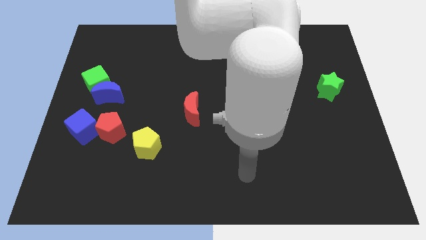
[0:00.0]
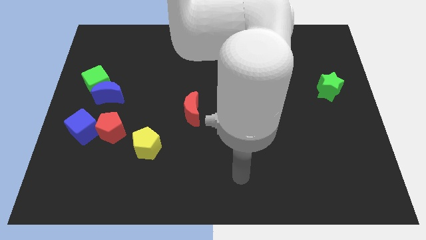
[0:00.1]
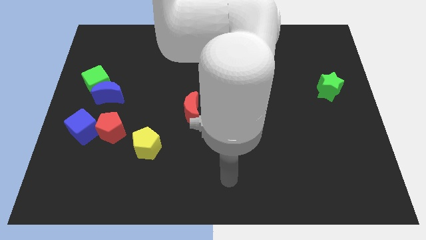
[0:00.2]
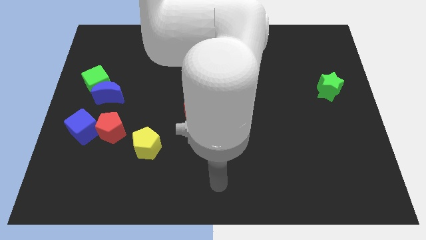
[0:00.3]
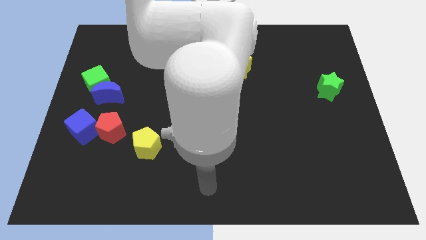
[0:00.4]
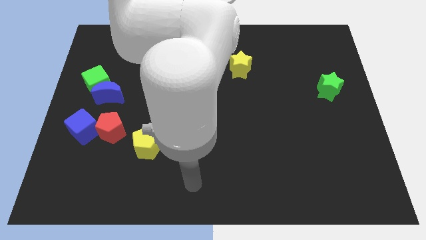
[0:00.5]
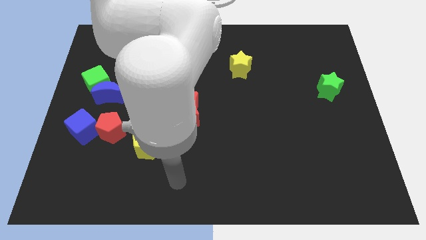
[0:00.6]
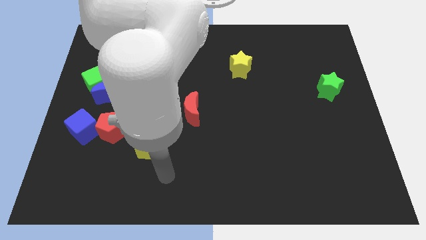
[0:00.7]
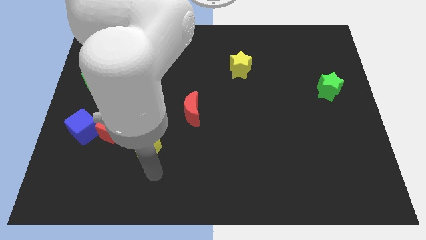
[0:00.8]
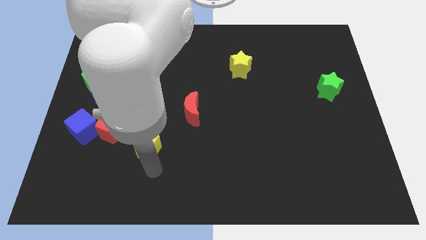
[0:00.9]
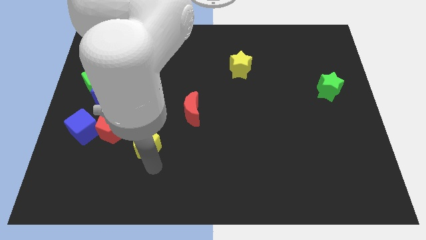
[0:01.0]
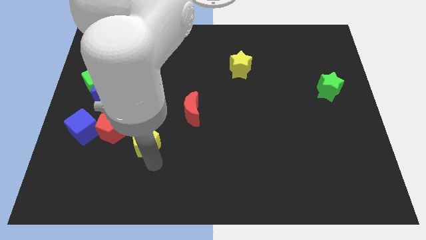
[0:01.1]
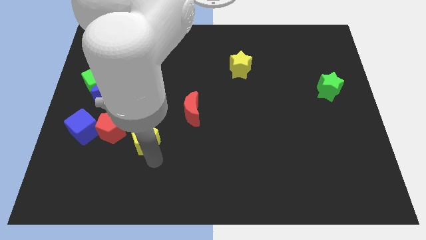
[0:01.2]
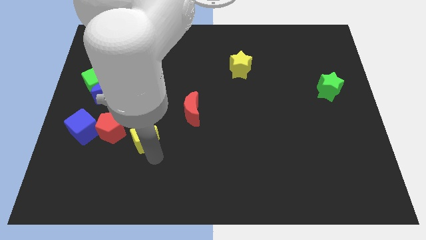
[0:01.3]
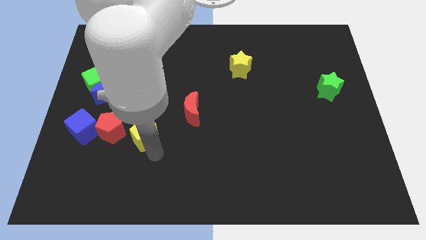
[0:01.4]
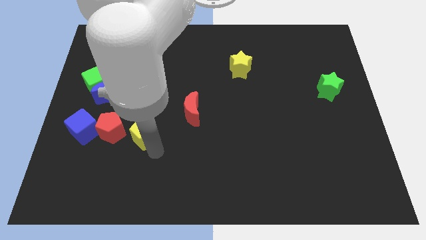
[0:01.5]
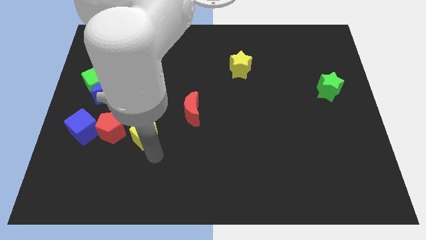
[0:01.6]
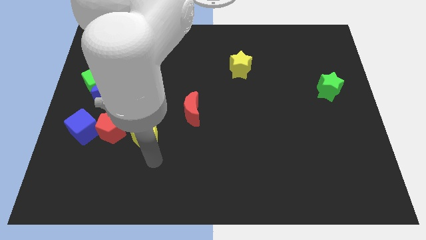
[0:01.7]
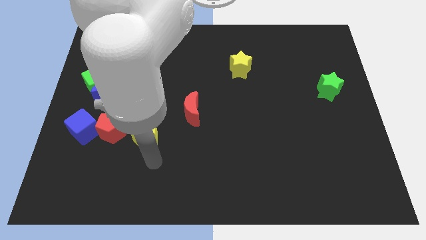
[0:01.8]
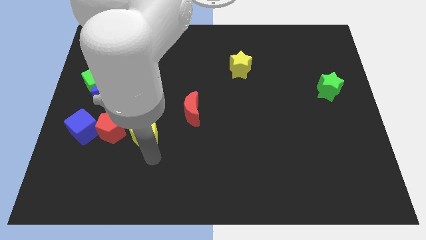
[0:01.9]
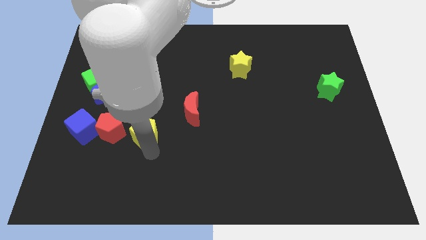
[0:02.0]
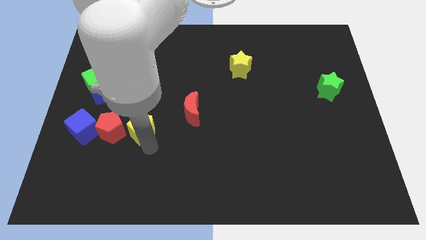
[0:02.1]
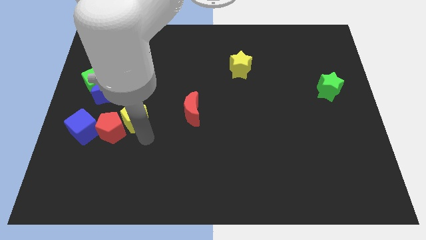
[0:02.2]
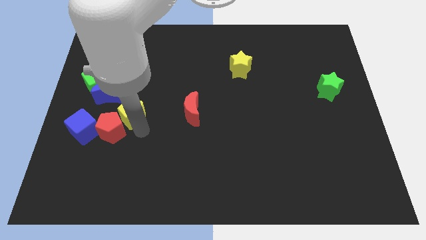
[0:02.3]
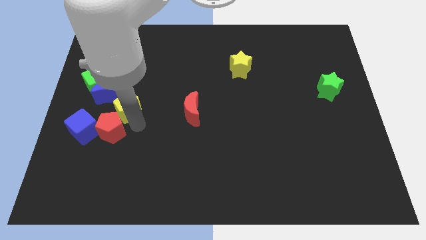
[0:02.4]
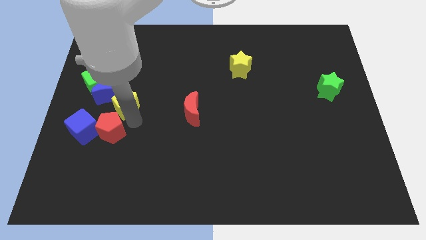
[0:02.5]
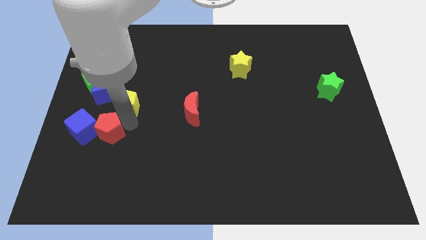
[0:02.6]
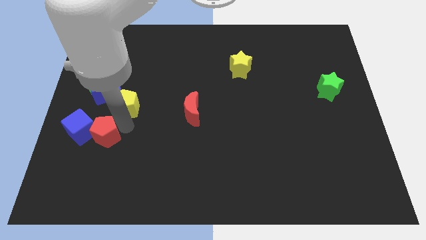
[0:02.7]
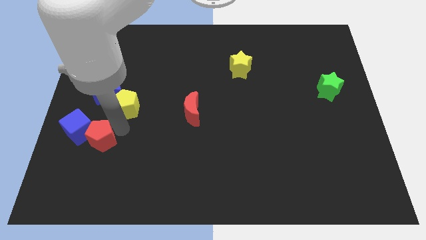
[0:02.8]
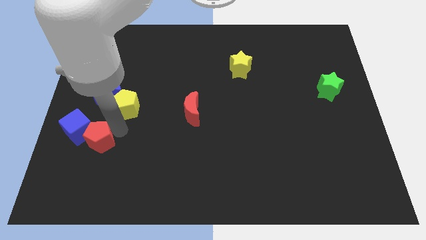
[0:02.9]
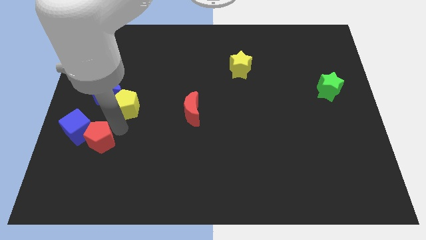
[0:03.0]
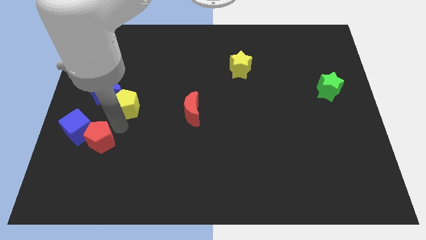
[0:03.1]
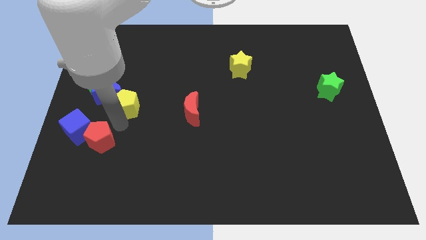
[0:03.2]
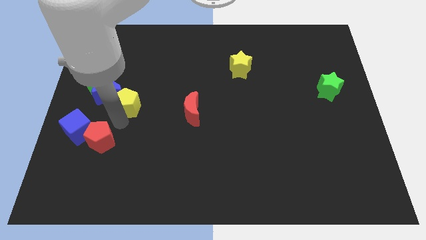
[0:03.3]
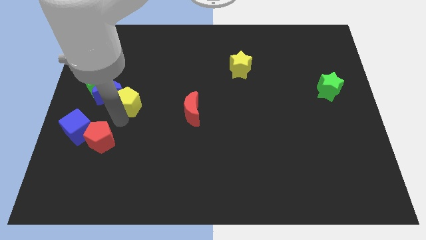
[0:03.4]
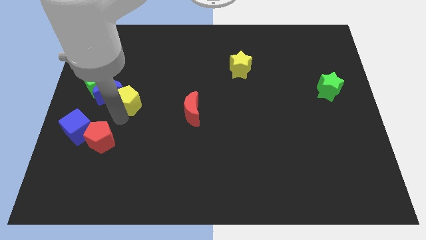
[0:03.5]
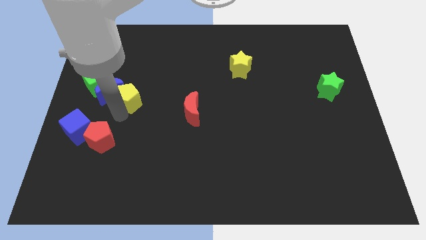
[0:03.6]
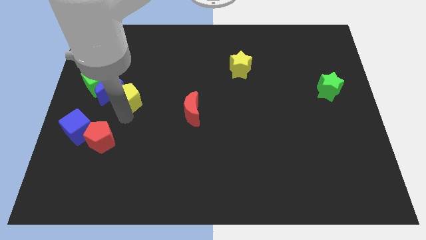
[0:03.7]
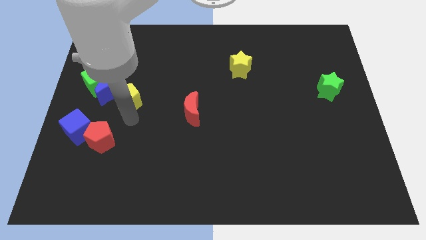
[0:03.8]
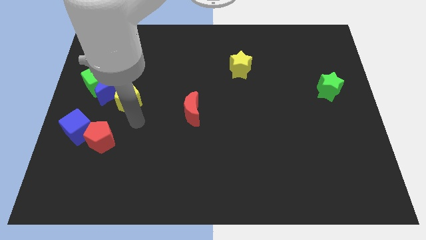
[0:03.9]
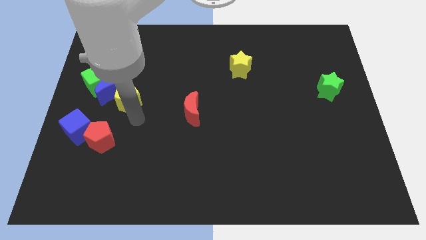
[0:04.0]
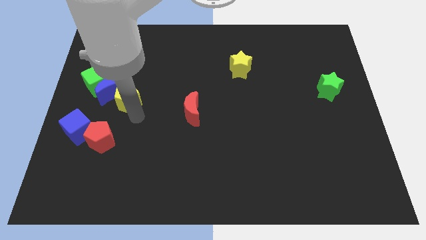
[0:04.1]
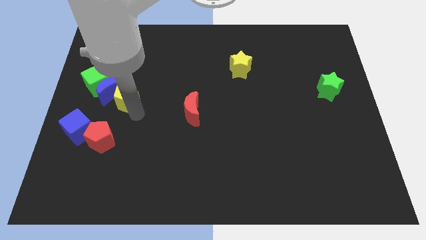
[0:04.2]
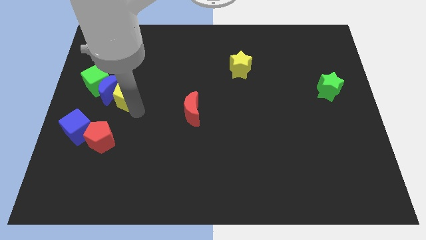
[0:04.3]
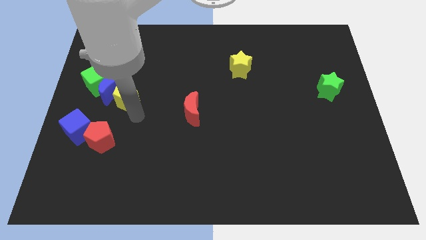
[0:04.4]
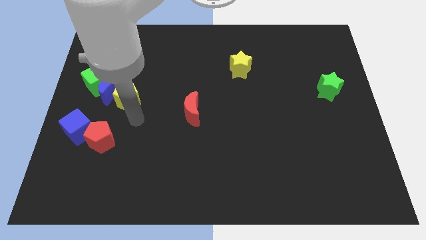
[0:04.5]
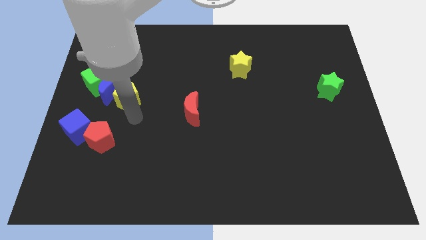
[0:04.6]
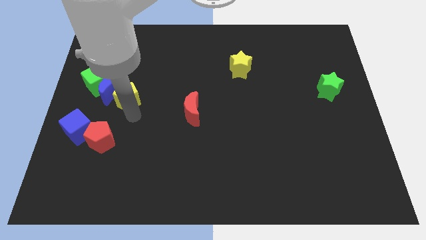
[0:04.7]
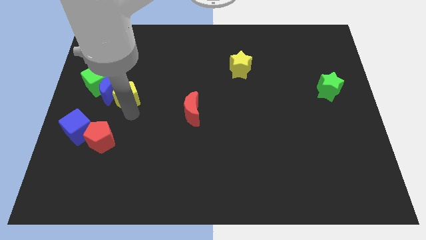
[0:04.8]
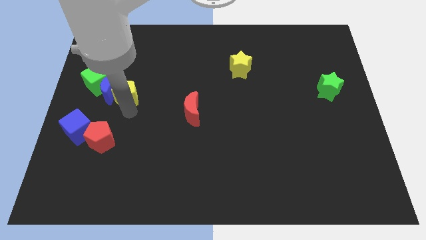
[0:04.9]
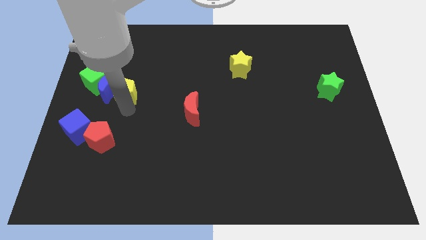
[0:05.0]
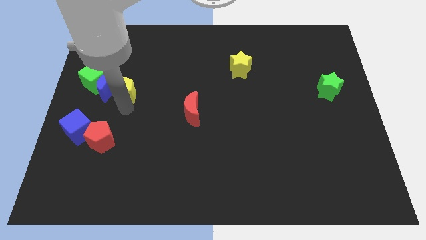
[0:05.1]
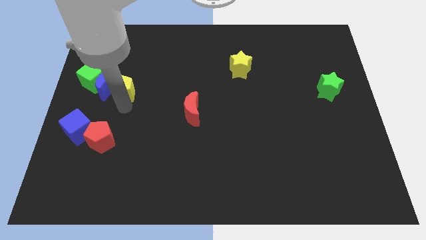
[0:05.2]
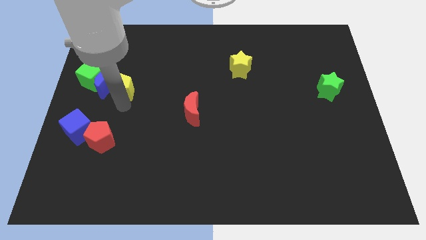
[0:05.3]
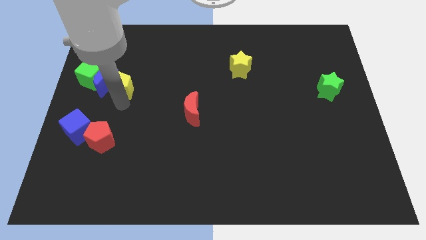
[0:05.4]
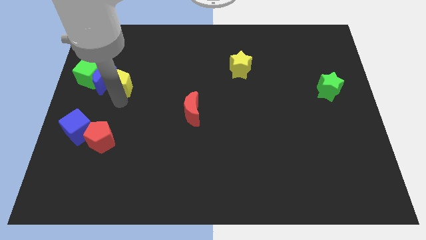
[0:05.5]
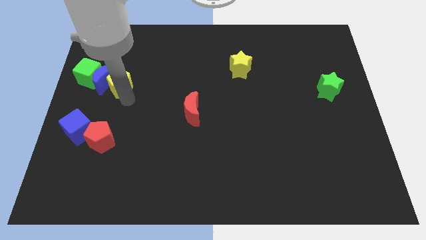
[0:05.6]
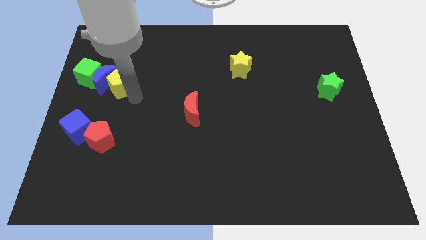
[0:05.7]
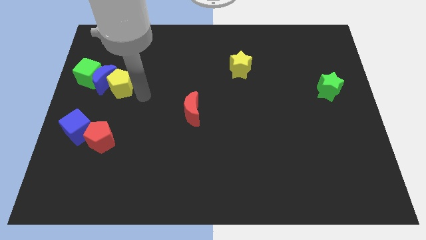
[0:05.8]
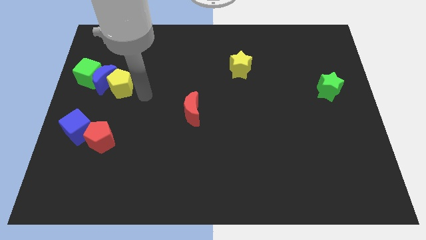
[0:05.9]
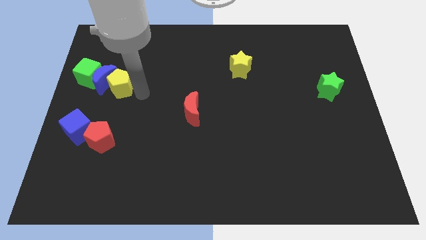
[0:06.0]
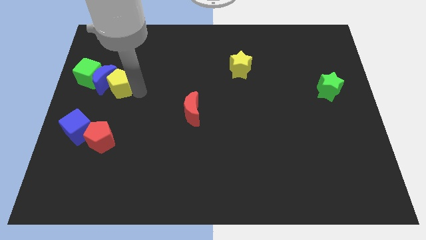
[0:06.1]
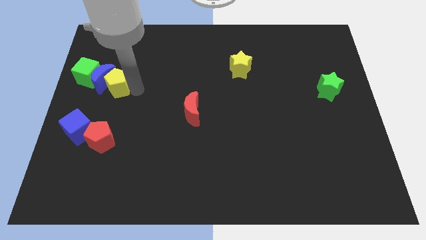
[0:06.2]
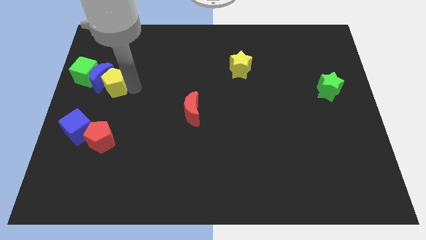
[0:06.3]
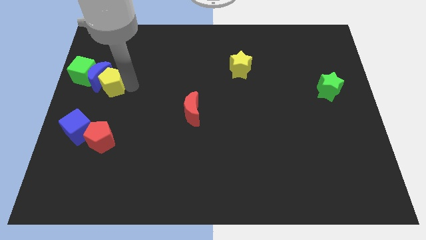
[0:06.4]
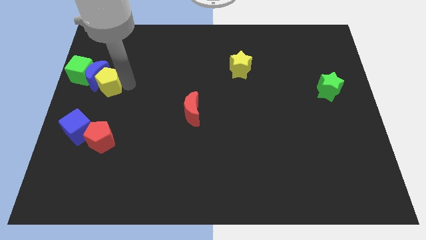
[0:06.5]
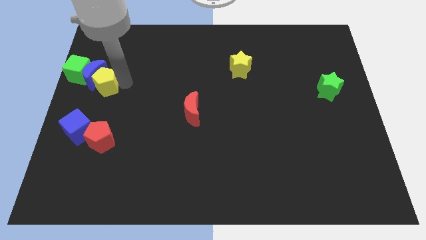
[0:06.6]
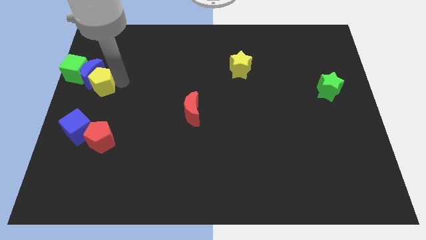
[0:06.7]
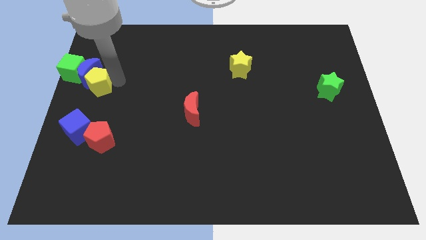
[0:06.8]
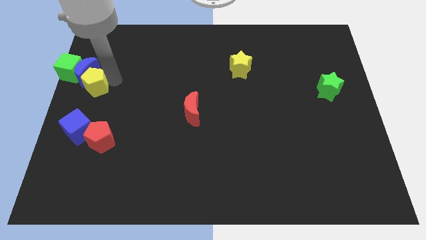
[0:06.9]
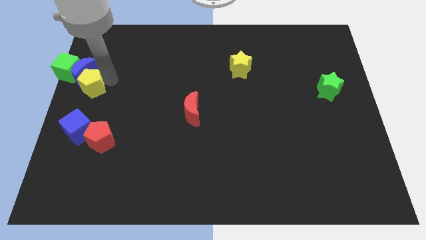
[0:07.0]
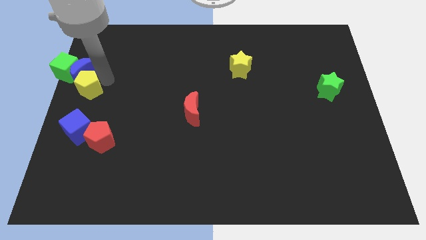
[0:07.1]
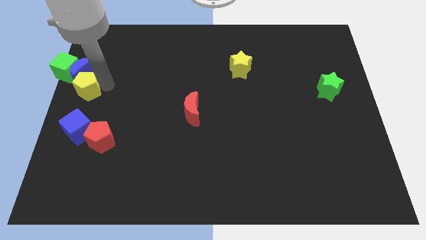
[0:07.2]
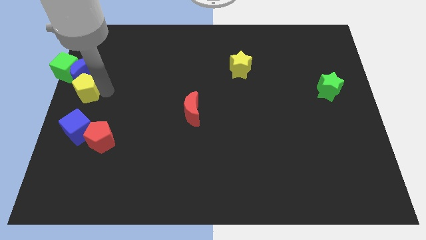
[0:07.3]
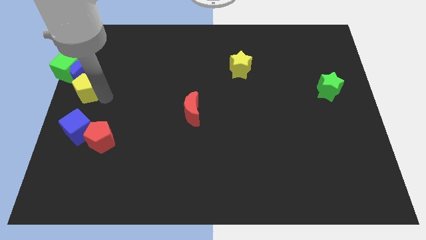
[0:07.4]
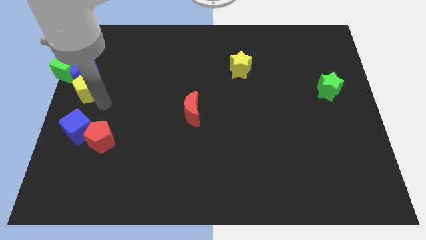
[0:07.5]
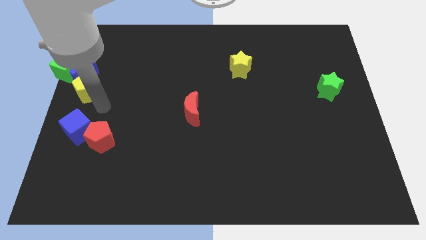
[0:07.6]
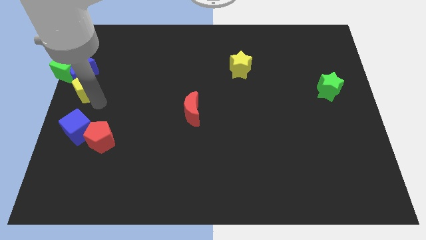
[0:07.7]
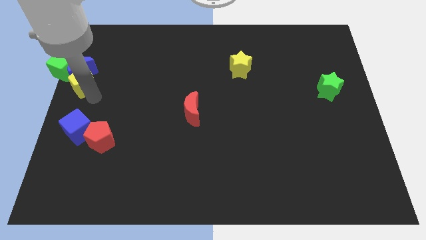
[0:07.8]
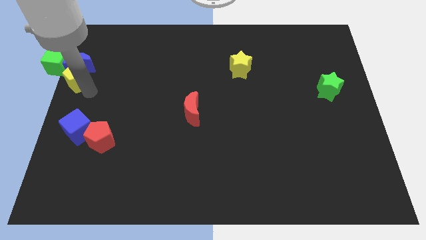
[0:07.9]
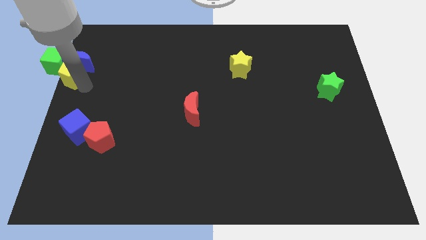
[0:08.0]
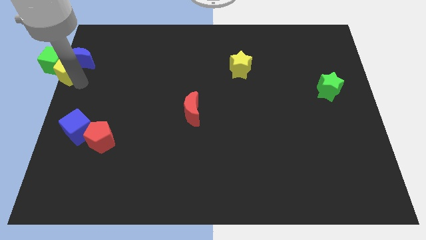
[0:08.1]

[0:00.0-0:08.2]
push the yellow pentagon towards the green cube
